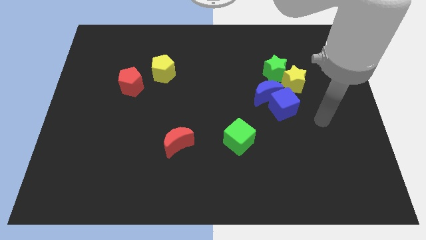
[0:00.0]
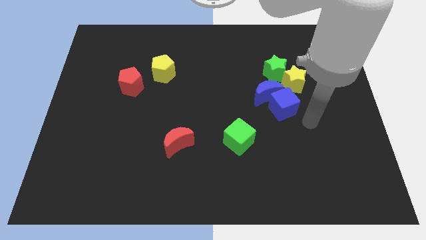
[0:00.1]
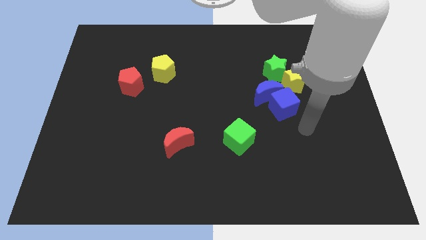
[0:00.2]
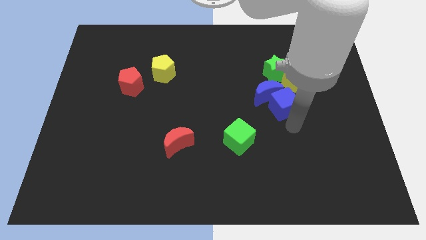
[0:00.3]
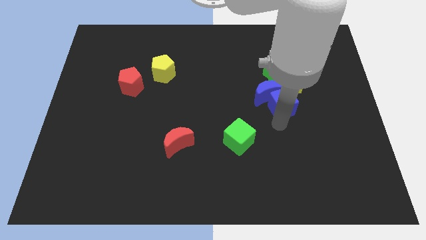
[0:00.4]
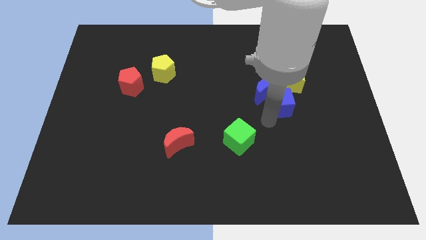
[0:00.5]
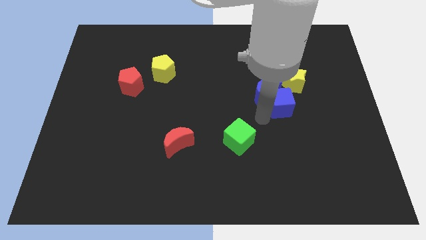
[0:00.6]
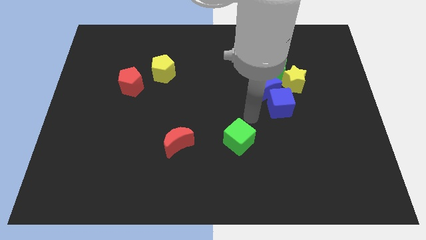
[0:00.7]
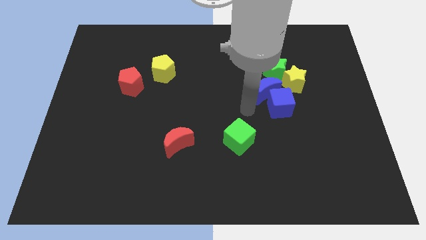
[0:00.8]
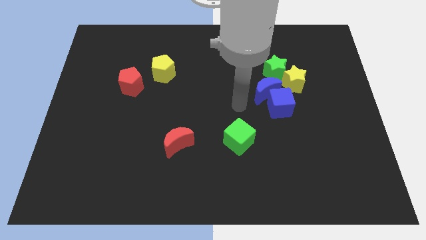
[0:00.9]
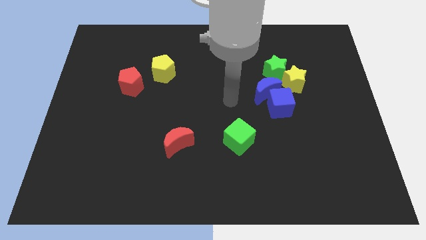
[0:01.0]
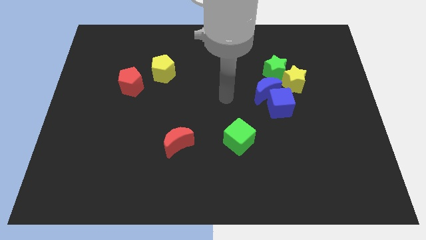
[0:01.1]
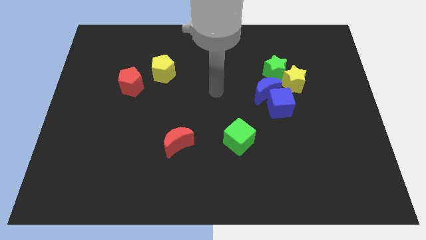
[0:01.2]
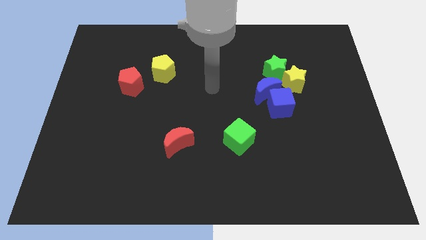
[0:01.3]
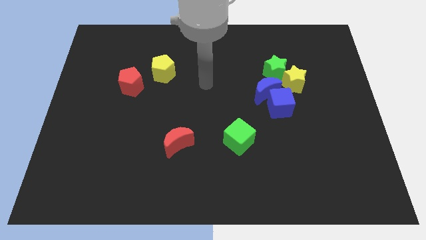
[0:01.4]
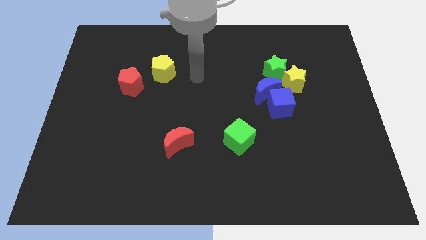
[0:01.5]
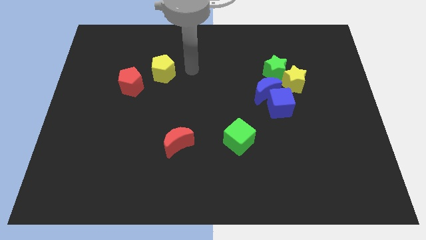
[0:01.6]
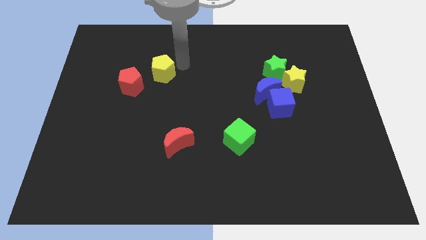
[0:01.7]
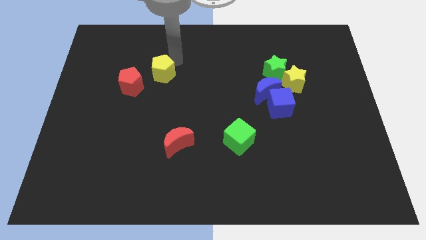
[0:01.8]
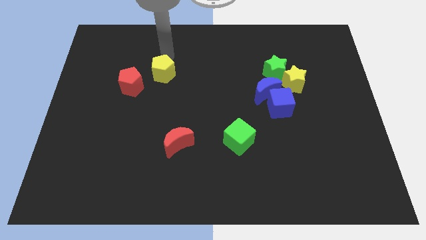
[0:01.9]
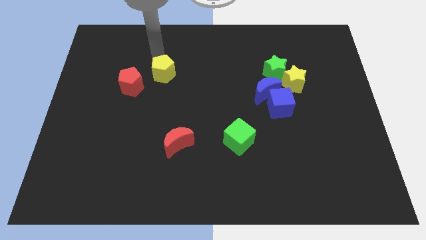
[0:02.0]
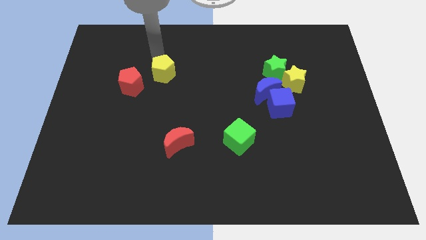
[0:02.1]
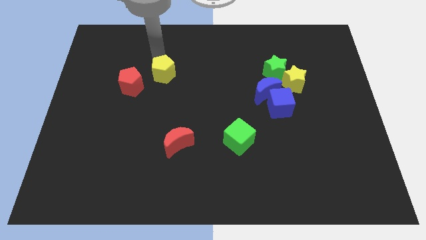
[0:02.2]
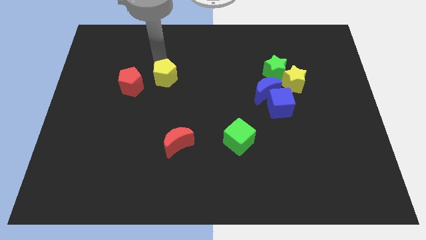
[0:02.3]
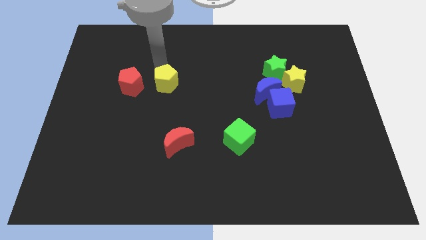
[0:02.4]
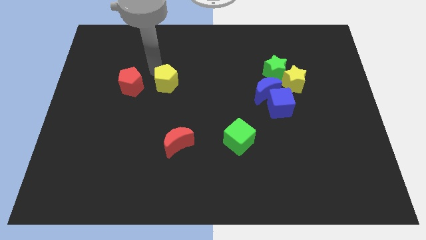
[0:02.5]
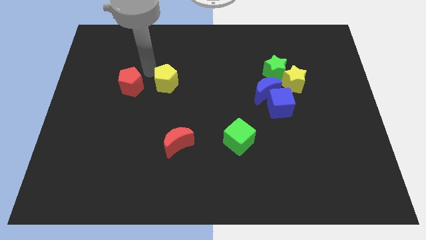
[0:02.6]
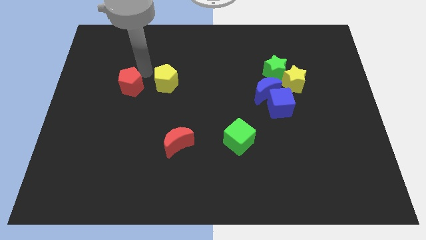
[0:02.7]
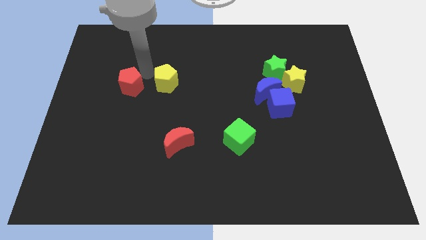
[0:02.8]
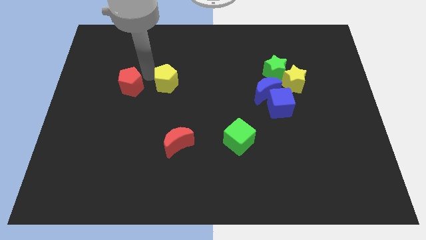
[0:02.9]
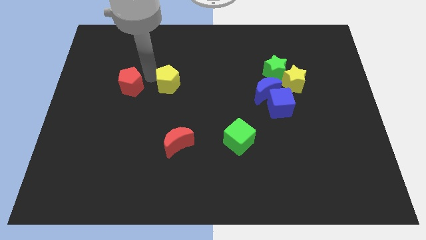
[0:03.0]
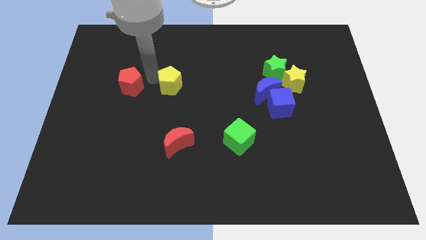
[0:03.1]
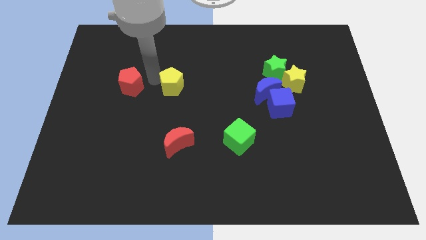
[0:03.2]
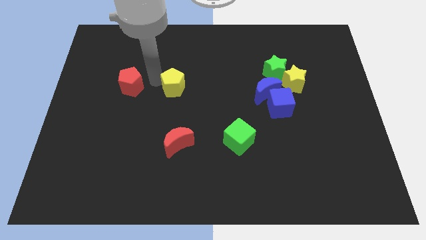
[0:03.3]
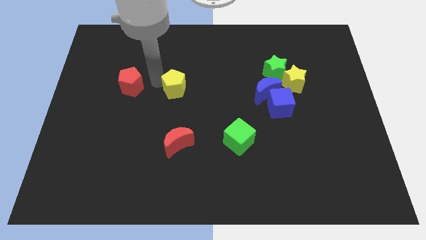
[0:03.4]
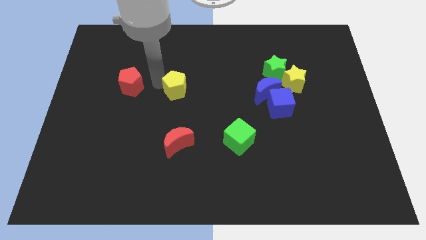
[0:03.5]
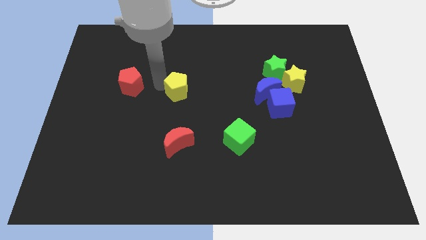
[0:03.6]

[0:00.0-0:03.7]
slightly move the yellow pentagon downwards and then to the right

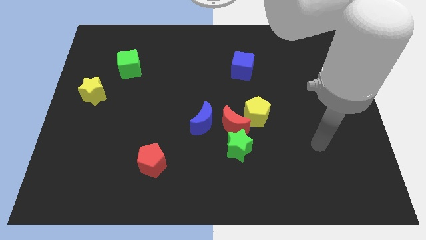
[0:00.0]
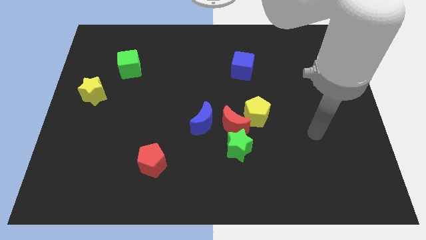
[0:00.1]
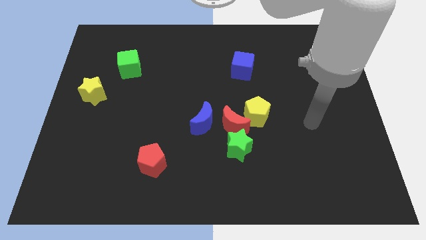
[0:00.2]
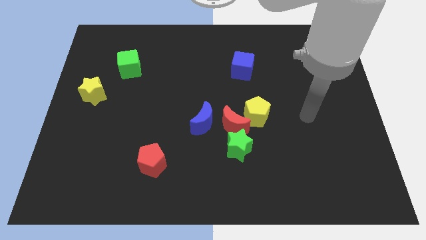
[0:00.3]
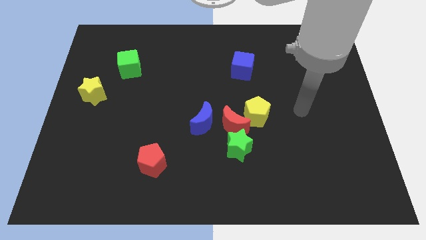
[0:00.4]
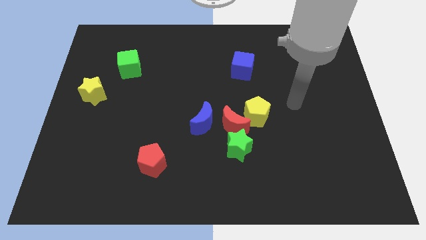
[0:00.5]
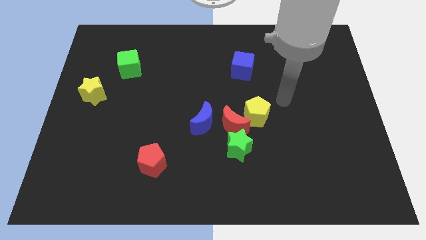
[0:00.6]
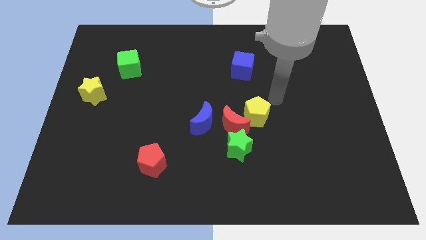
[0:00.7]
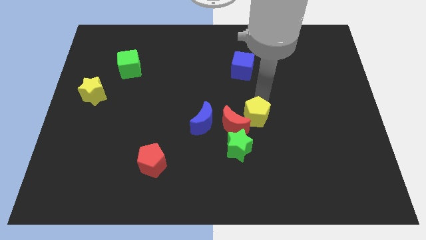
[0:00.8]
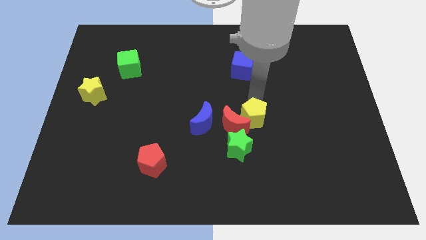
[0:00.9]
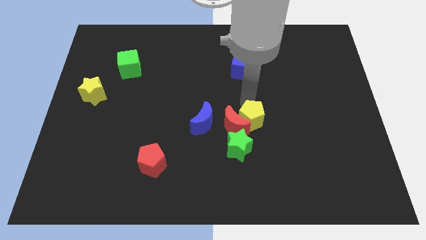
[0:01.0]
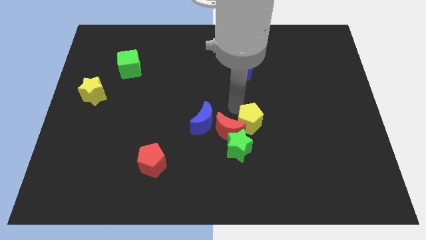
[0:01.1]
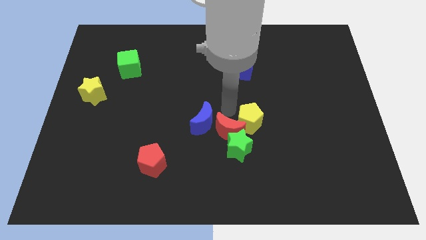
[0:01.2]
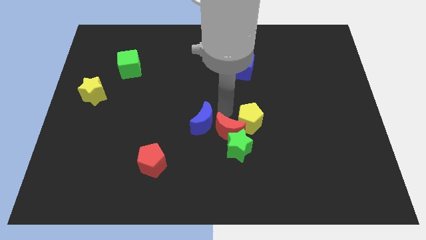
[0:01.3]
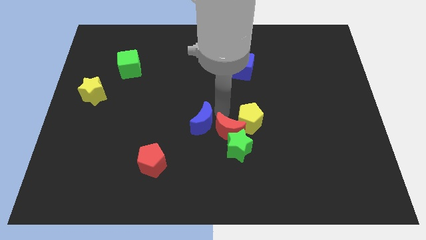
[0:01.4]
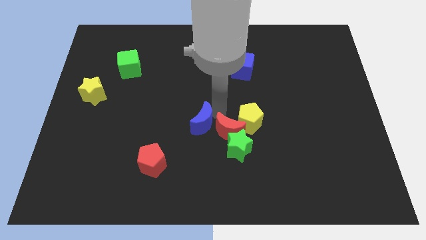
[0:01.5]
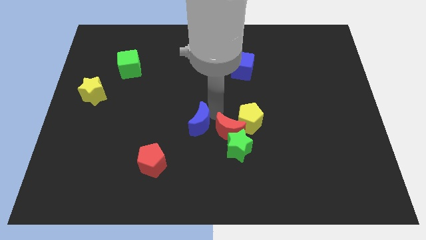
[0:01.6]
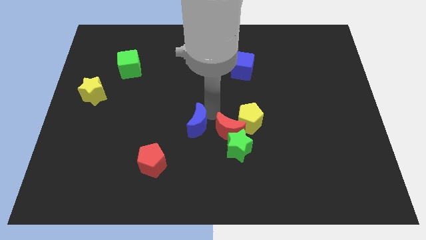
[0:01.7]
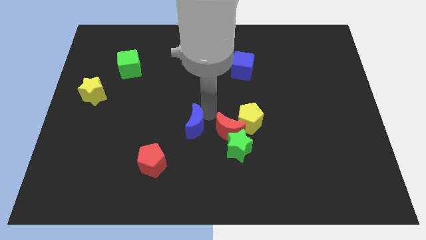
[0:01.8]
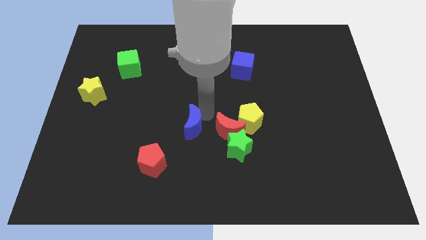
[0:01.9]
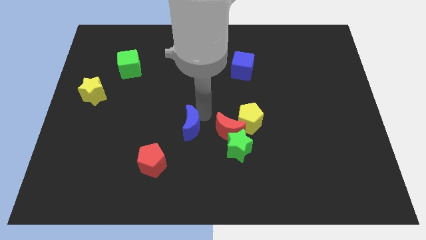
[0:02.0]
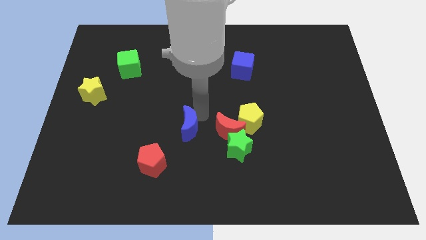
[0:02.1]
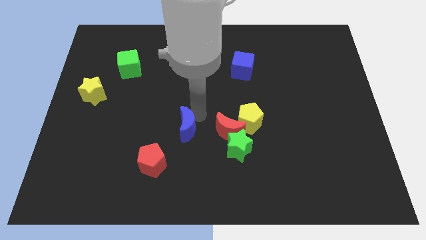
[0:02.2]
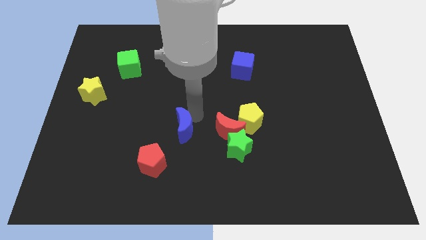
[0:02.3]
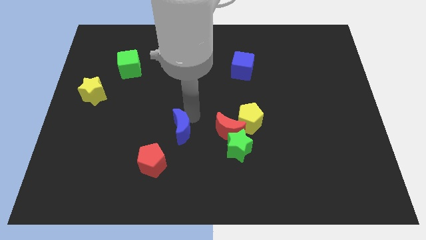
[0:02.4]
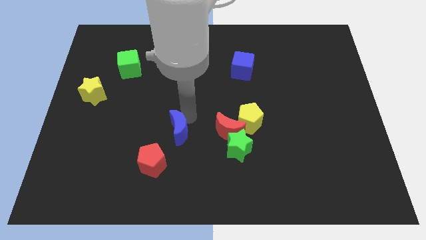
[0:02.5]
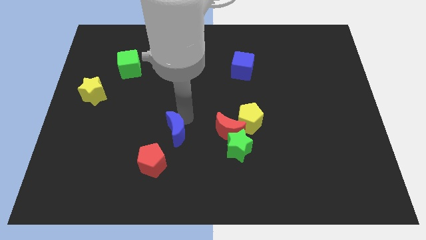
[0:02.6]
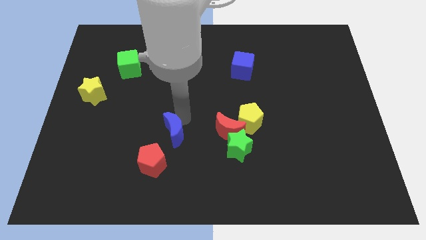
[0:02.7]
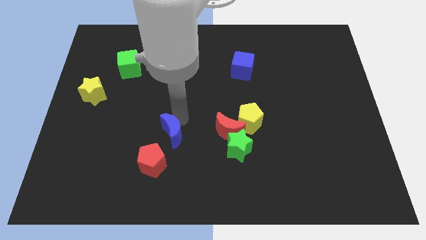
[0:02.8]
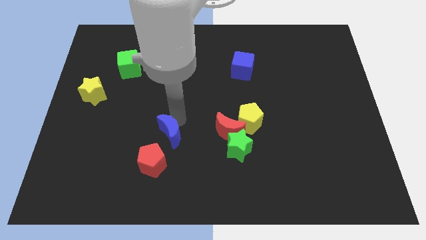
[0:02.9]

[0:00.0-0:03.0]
push the blue moon downwards and left a bit

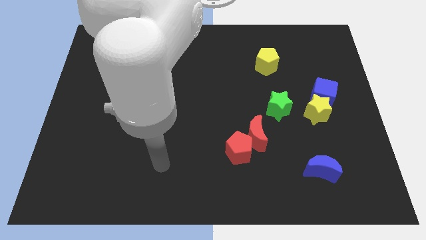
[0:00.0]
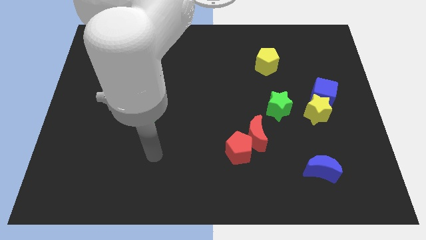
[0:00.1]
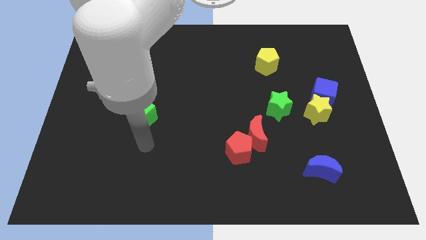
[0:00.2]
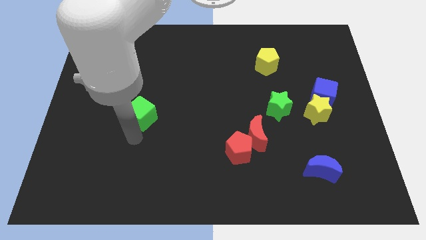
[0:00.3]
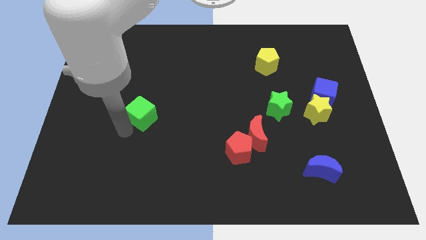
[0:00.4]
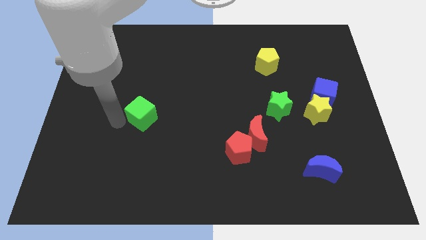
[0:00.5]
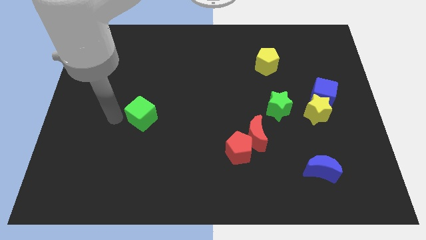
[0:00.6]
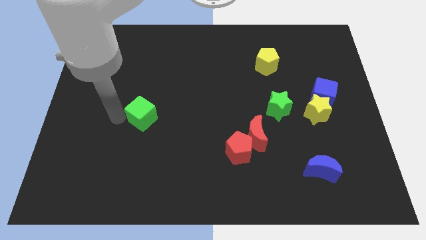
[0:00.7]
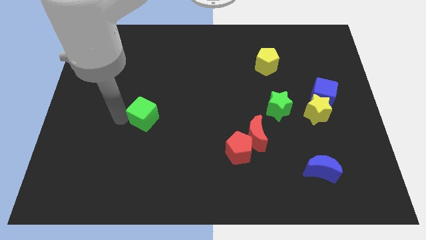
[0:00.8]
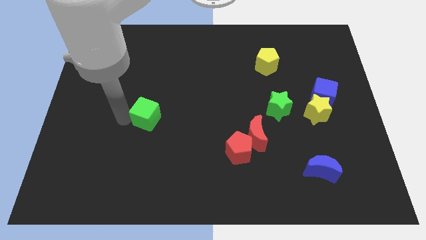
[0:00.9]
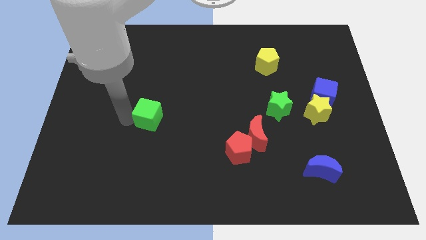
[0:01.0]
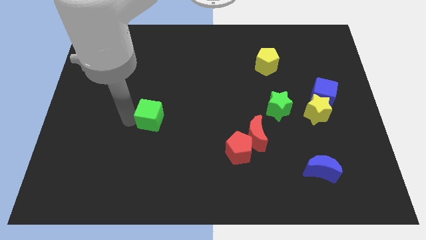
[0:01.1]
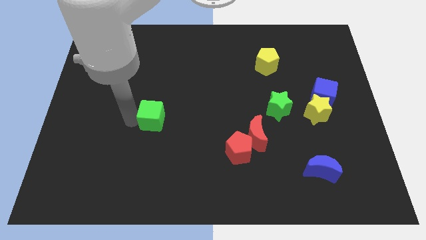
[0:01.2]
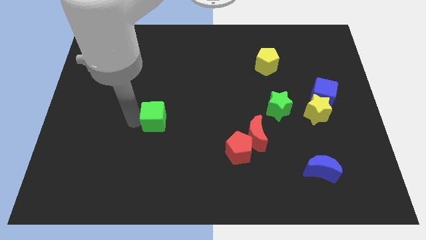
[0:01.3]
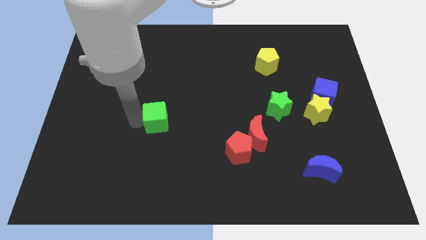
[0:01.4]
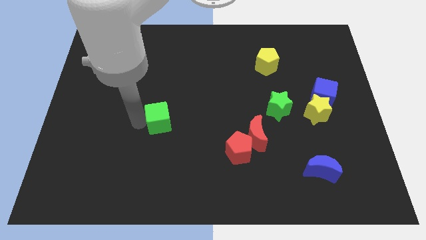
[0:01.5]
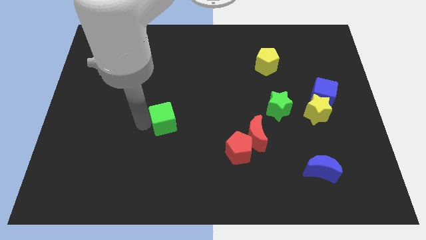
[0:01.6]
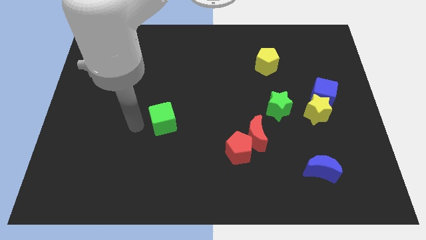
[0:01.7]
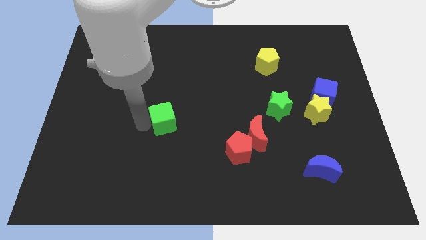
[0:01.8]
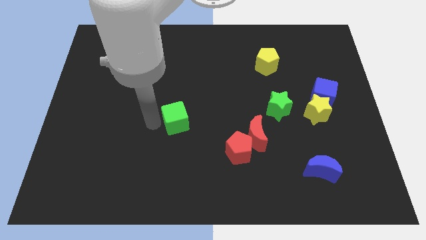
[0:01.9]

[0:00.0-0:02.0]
slide the green cube somewhat right
